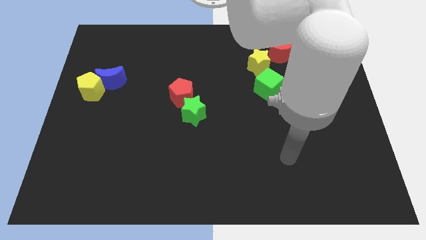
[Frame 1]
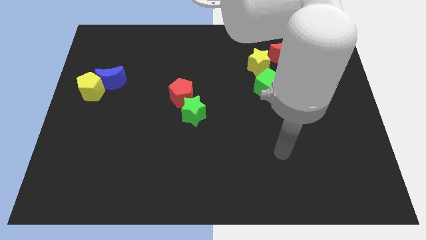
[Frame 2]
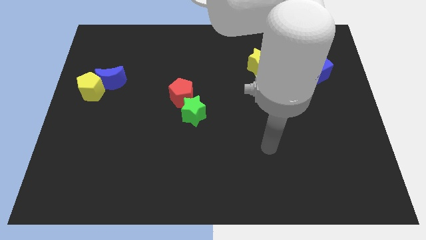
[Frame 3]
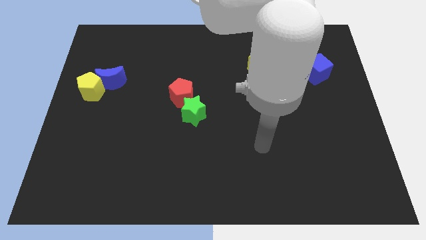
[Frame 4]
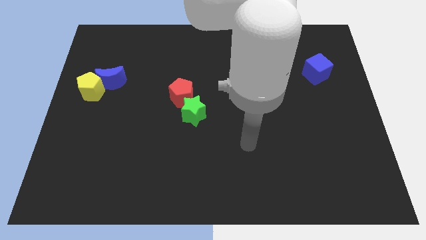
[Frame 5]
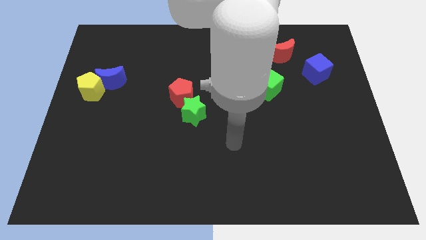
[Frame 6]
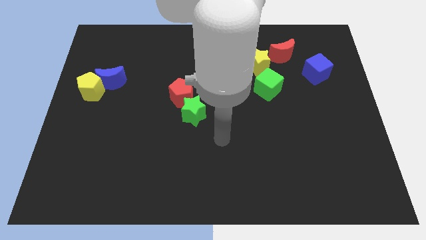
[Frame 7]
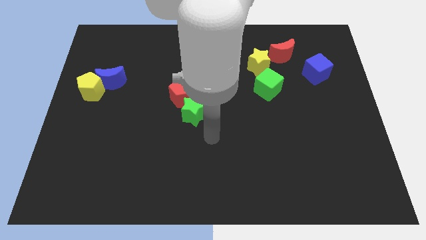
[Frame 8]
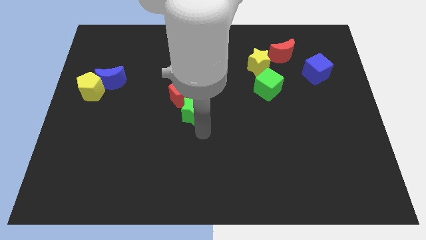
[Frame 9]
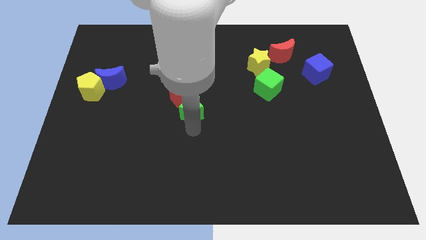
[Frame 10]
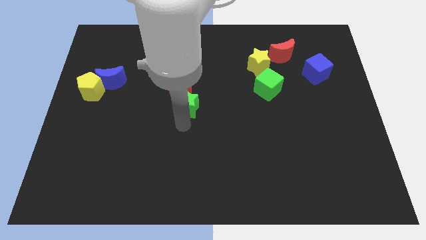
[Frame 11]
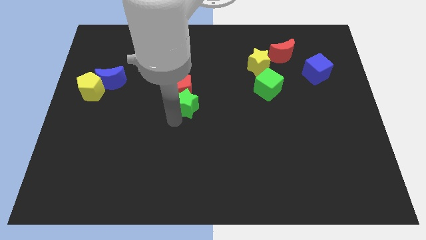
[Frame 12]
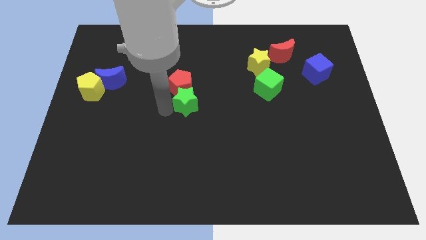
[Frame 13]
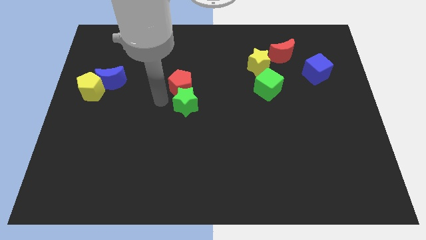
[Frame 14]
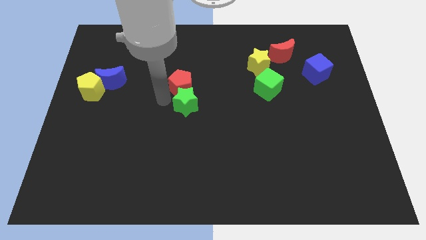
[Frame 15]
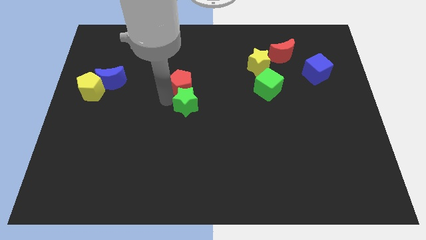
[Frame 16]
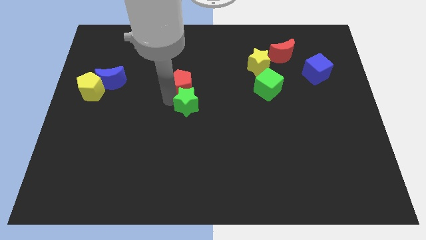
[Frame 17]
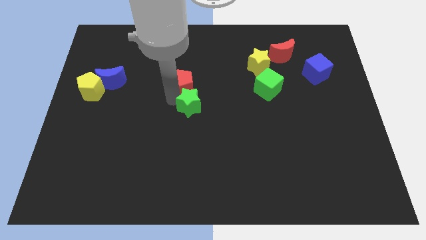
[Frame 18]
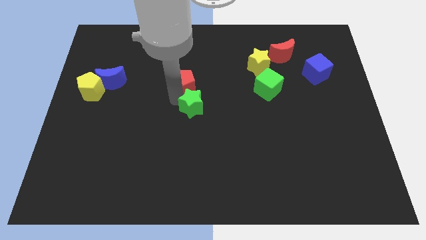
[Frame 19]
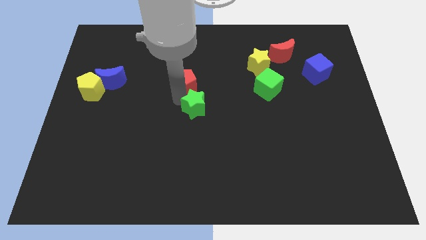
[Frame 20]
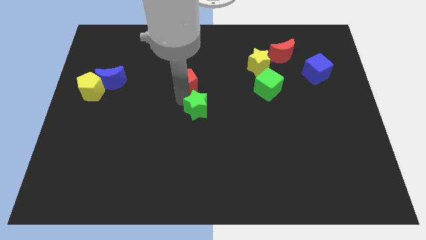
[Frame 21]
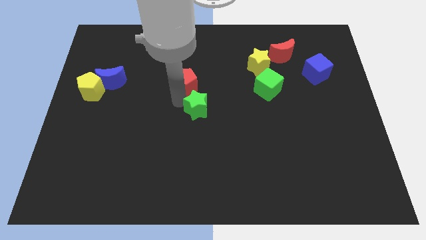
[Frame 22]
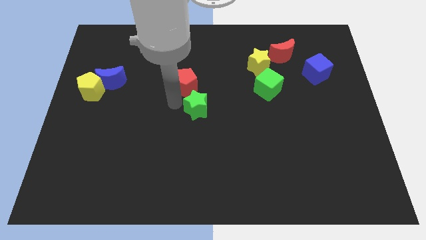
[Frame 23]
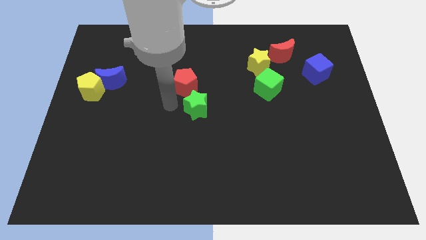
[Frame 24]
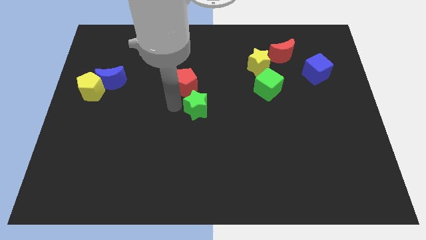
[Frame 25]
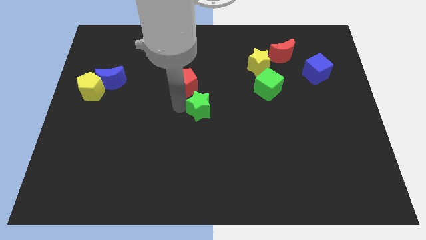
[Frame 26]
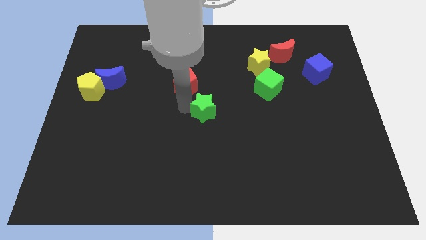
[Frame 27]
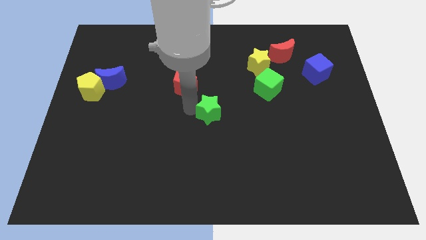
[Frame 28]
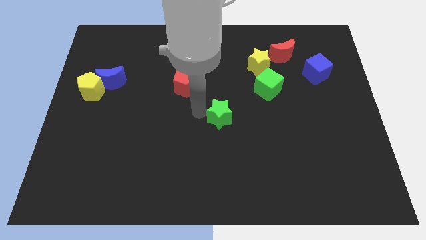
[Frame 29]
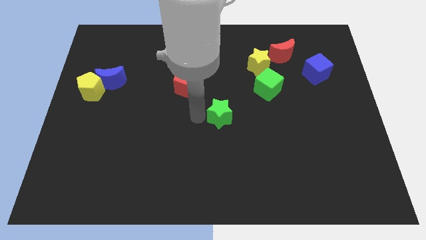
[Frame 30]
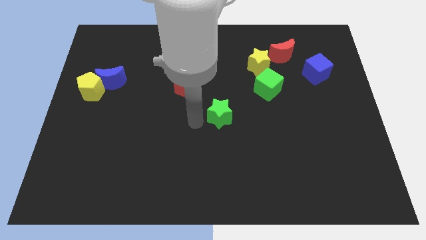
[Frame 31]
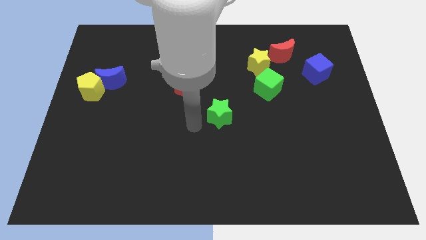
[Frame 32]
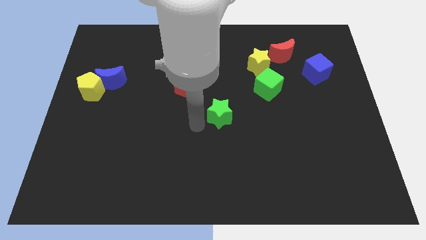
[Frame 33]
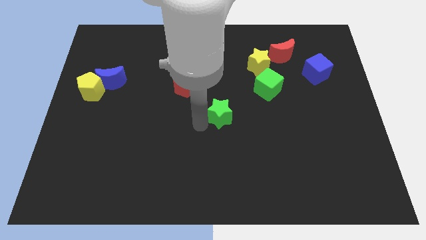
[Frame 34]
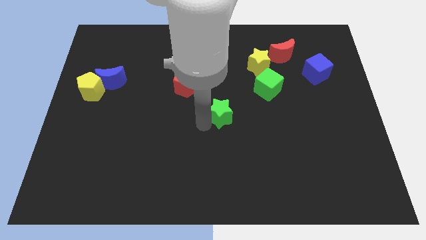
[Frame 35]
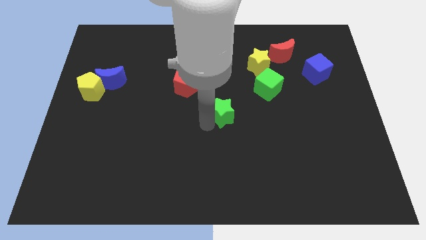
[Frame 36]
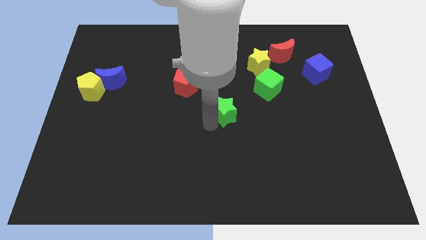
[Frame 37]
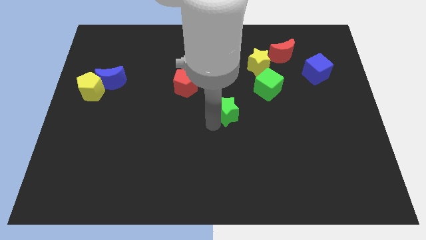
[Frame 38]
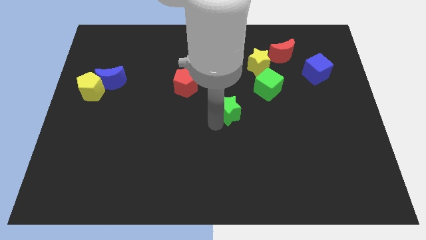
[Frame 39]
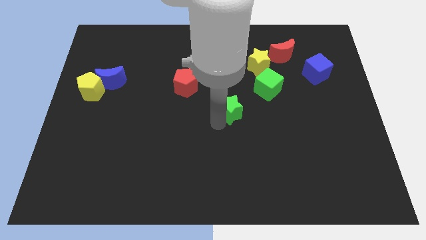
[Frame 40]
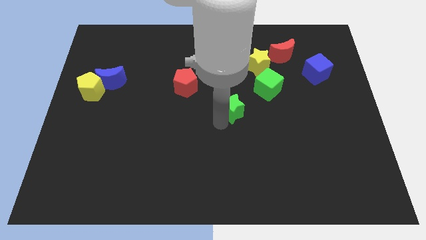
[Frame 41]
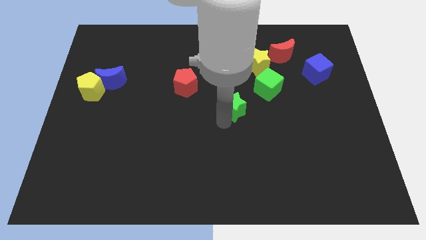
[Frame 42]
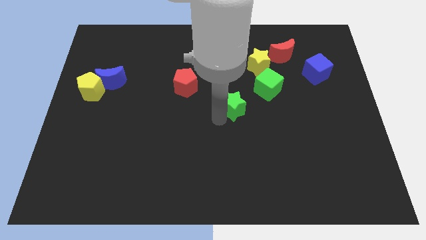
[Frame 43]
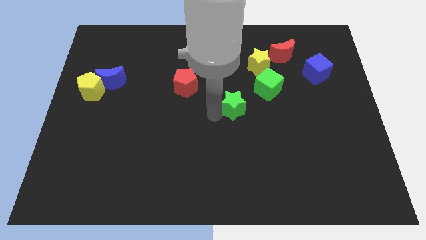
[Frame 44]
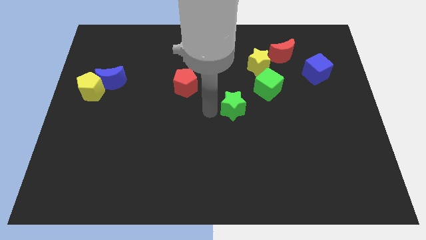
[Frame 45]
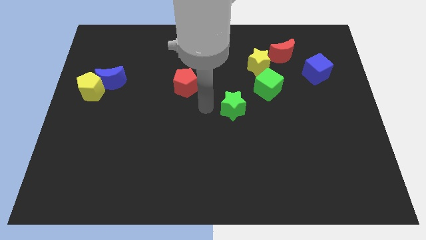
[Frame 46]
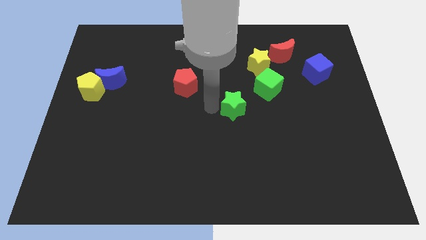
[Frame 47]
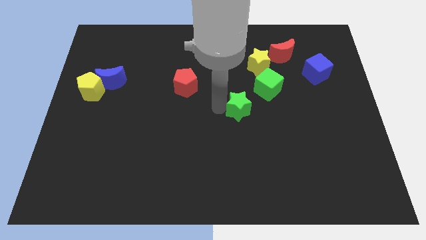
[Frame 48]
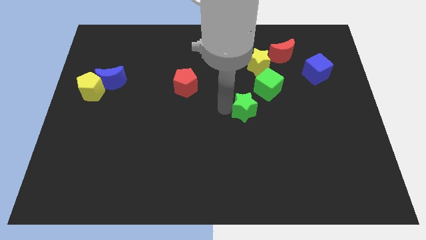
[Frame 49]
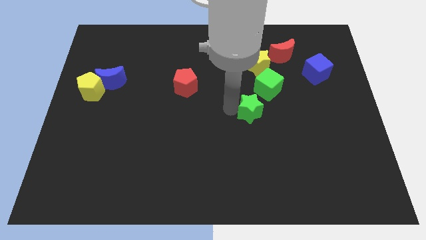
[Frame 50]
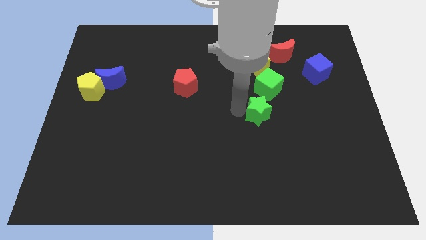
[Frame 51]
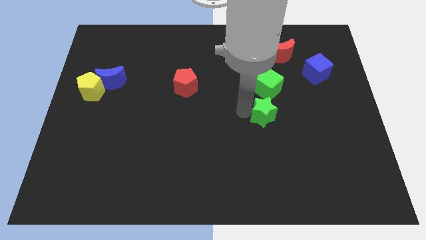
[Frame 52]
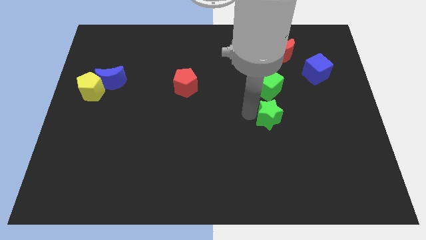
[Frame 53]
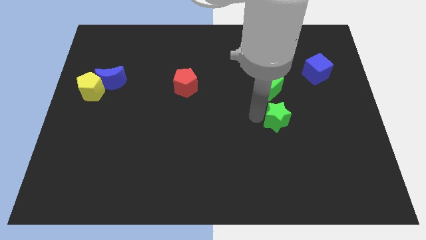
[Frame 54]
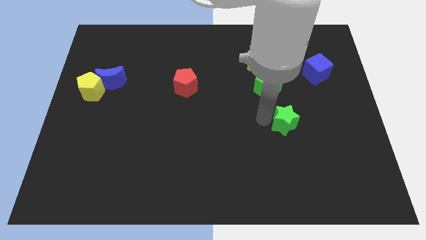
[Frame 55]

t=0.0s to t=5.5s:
push the green star right

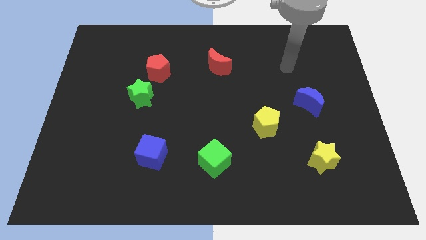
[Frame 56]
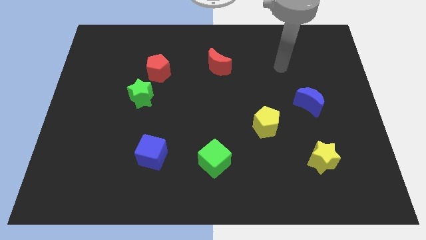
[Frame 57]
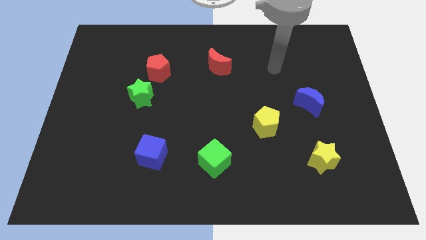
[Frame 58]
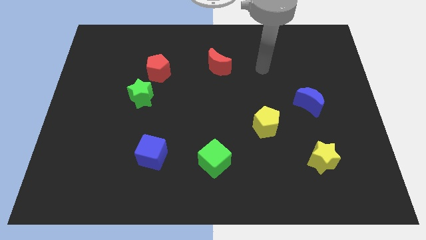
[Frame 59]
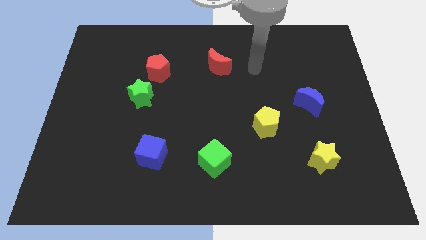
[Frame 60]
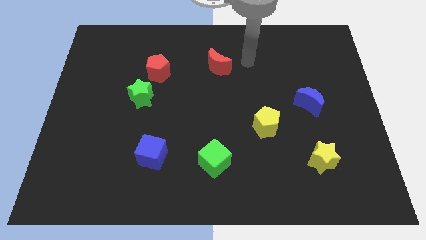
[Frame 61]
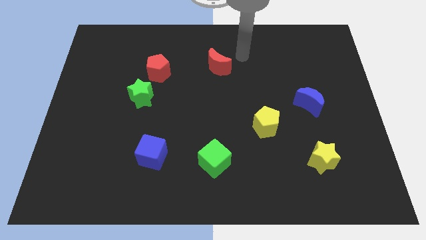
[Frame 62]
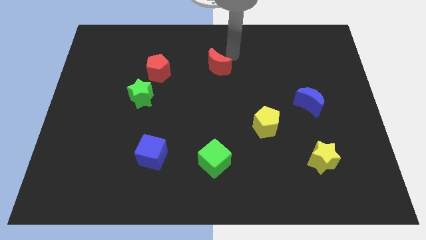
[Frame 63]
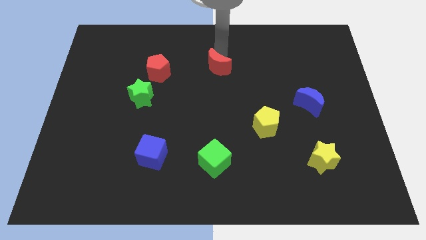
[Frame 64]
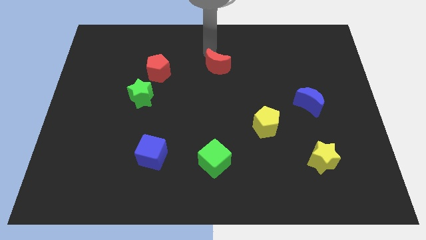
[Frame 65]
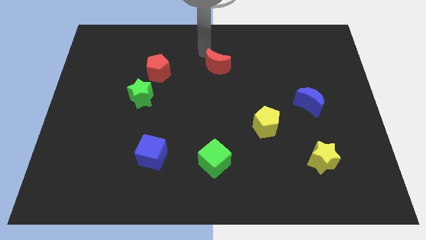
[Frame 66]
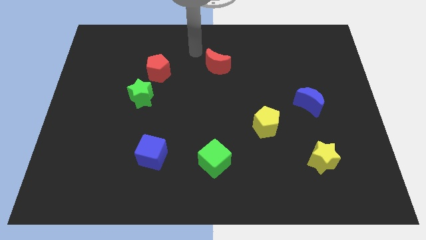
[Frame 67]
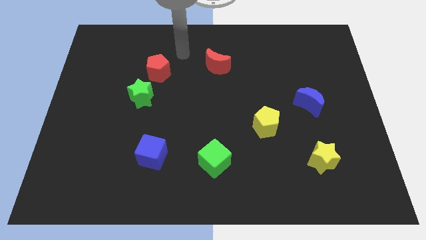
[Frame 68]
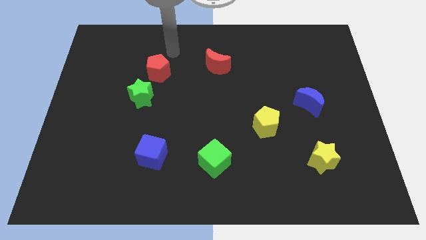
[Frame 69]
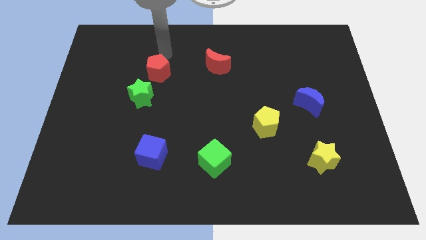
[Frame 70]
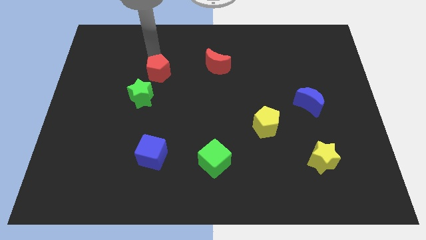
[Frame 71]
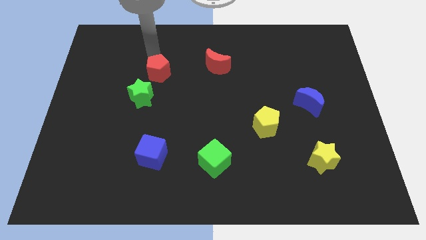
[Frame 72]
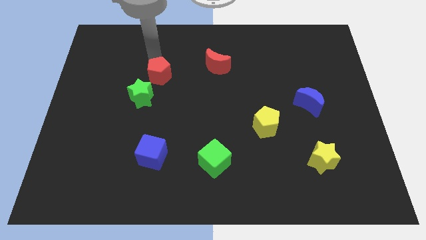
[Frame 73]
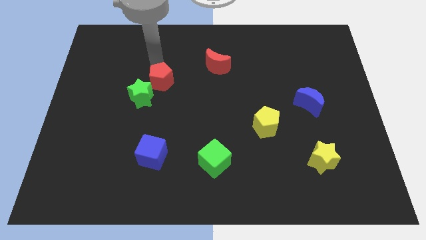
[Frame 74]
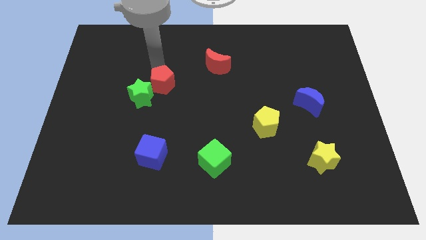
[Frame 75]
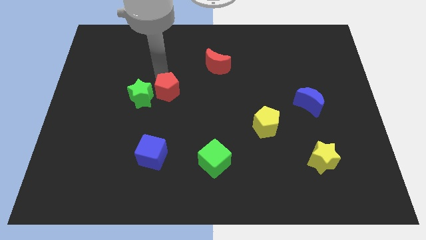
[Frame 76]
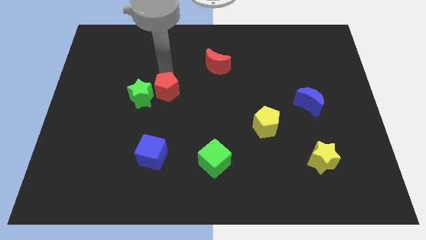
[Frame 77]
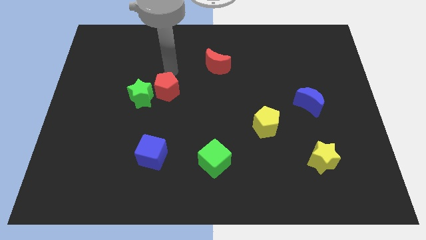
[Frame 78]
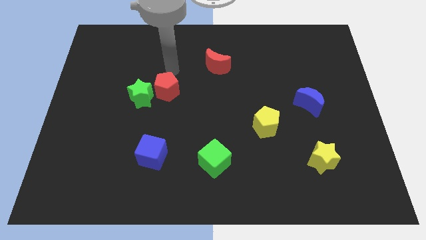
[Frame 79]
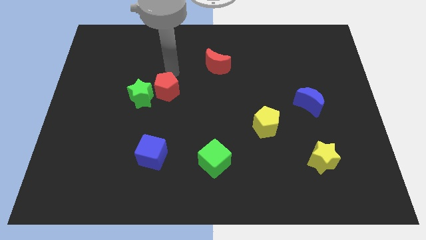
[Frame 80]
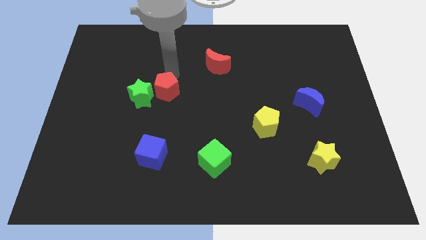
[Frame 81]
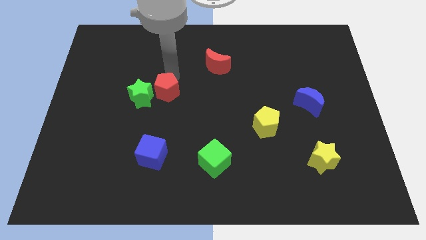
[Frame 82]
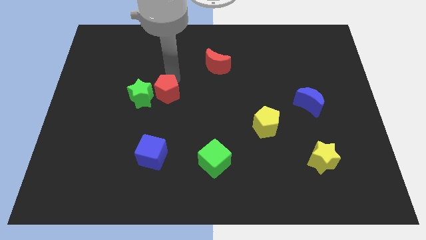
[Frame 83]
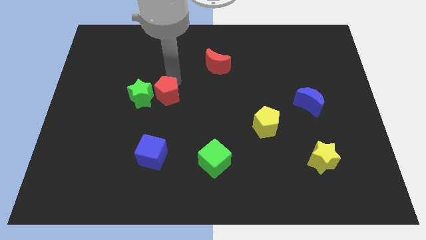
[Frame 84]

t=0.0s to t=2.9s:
slide the red pentagon somewhat downwards
